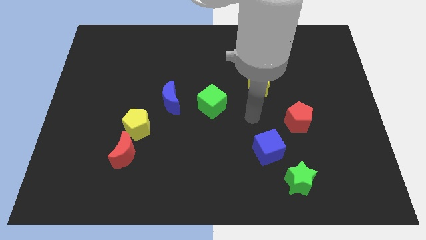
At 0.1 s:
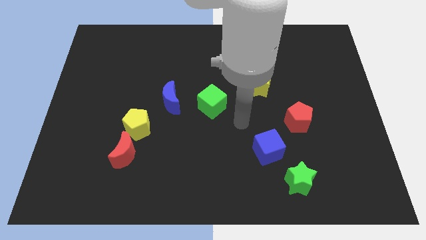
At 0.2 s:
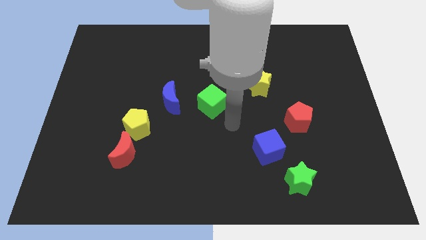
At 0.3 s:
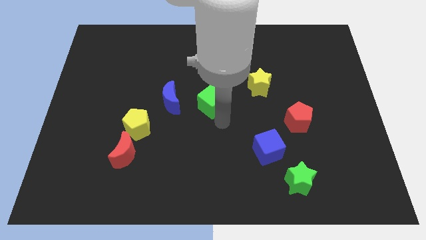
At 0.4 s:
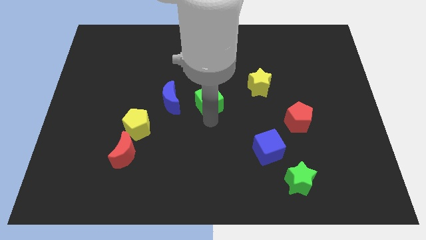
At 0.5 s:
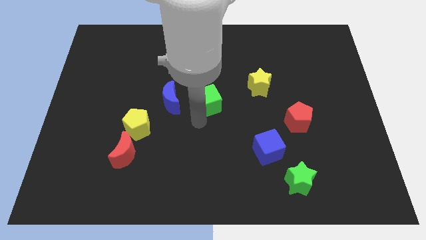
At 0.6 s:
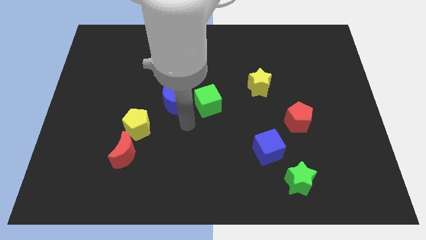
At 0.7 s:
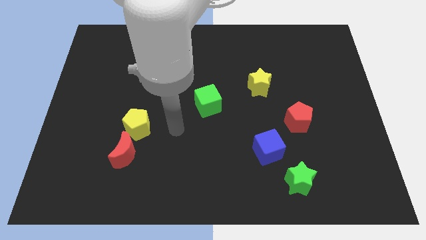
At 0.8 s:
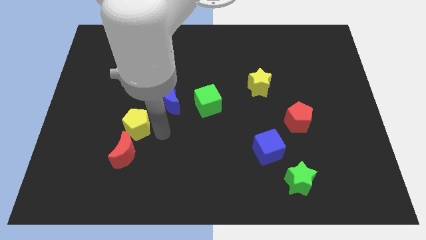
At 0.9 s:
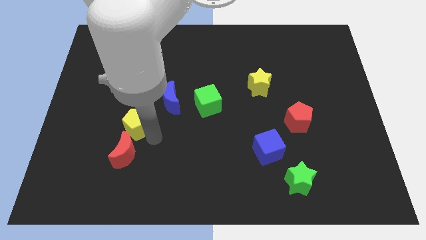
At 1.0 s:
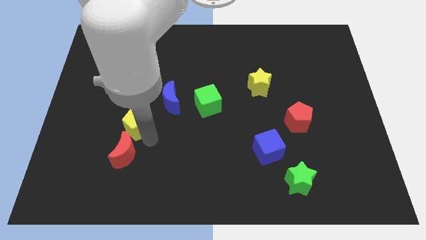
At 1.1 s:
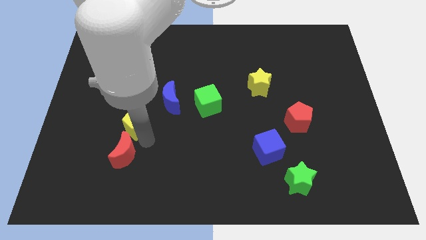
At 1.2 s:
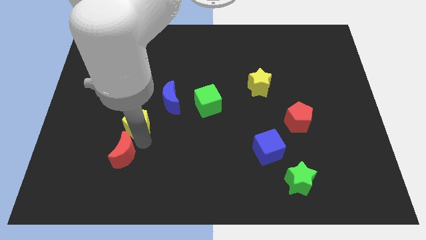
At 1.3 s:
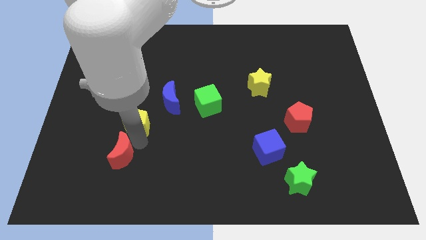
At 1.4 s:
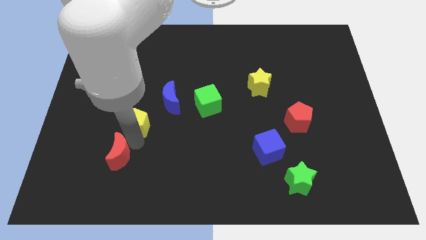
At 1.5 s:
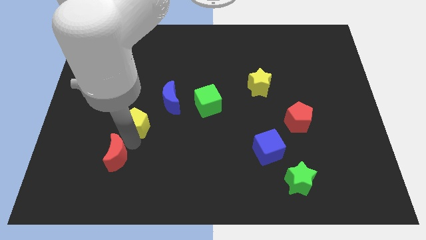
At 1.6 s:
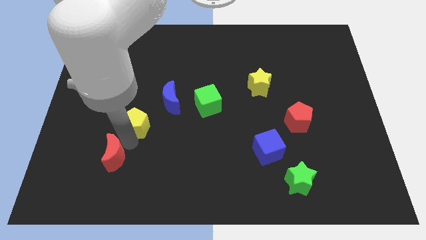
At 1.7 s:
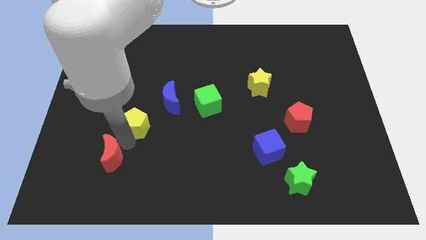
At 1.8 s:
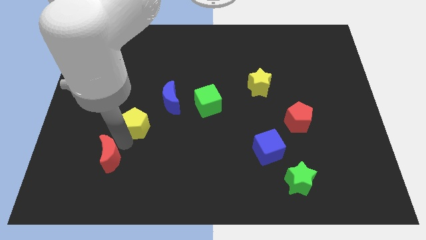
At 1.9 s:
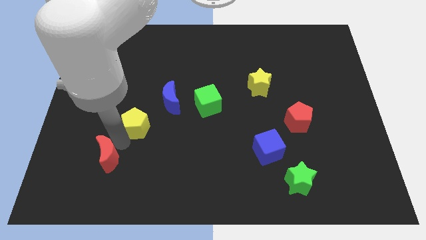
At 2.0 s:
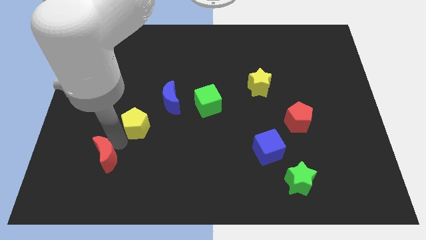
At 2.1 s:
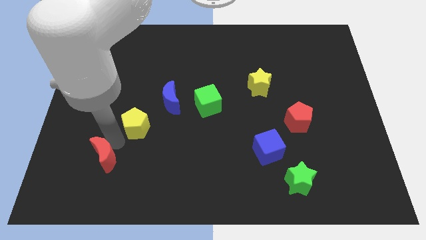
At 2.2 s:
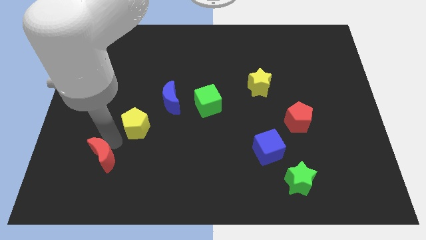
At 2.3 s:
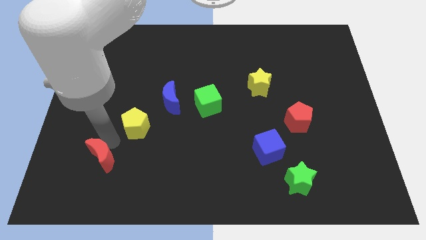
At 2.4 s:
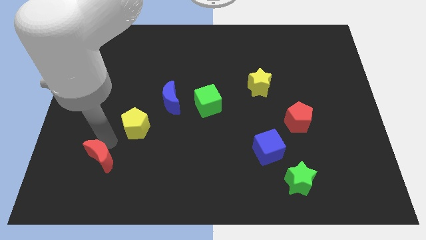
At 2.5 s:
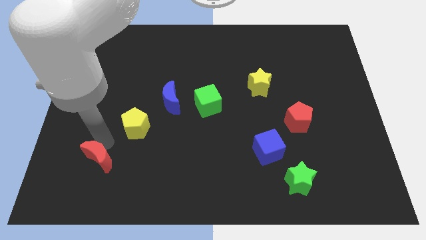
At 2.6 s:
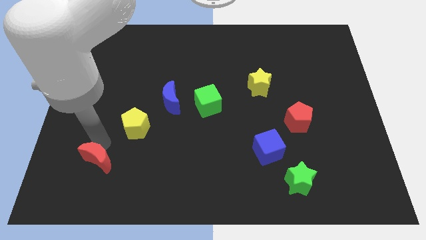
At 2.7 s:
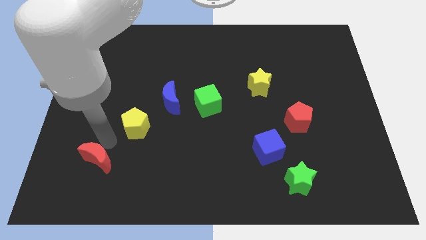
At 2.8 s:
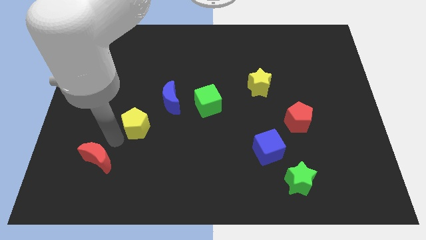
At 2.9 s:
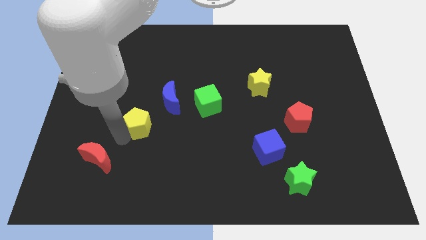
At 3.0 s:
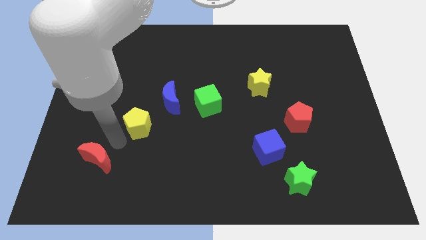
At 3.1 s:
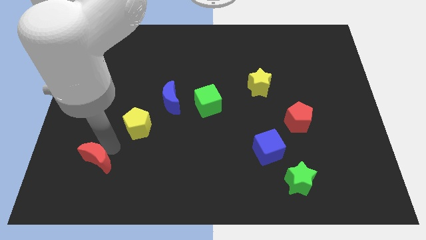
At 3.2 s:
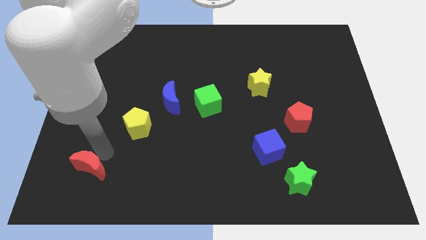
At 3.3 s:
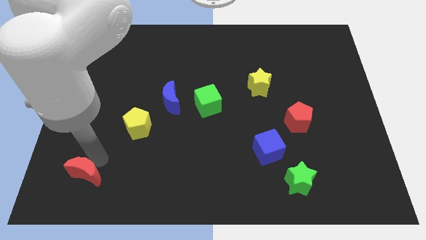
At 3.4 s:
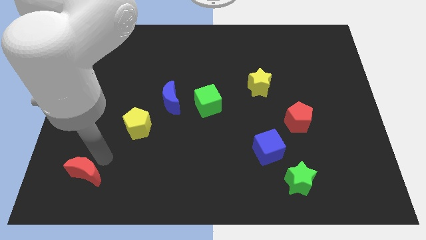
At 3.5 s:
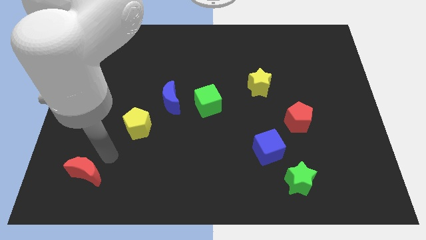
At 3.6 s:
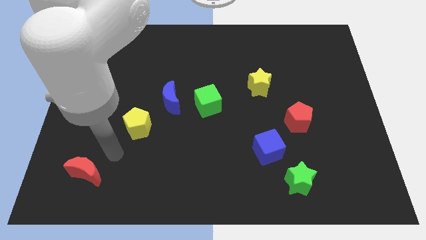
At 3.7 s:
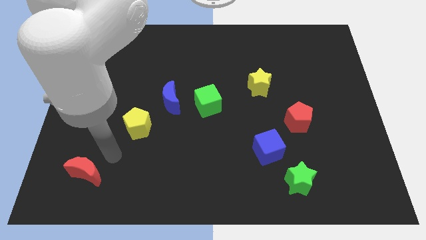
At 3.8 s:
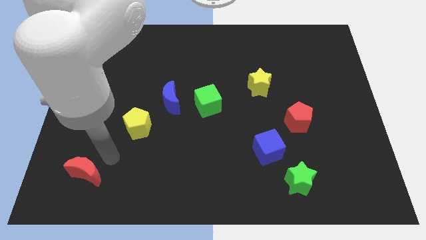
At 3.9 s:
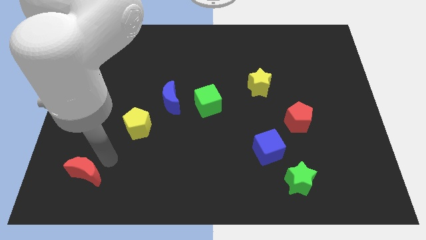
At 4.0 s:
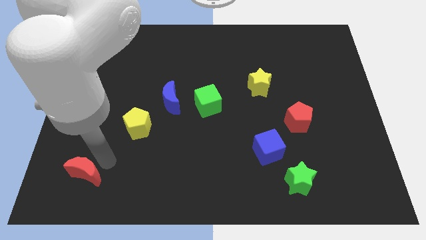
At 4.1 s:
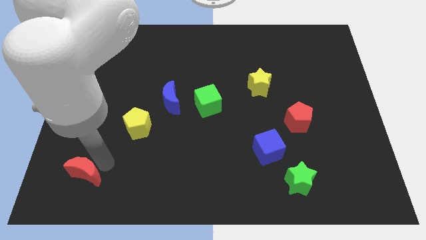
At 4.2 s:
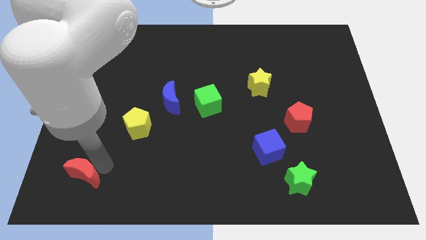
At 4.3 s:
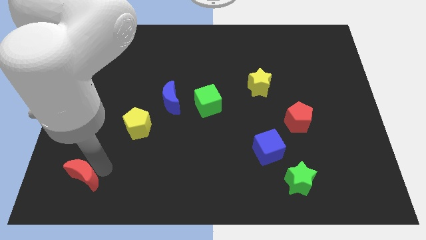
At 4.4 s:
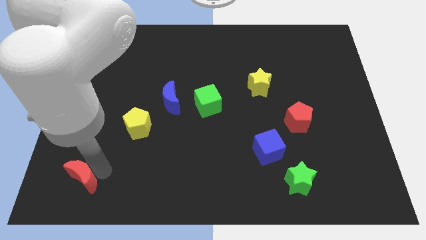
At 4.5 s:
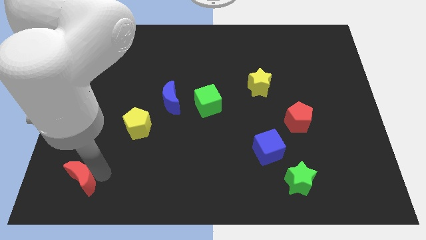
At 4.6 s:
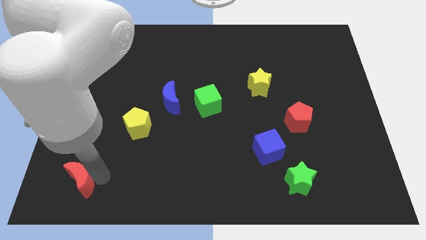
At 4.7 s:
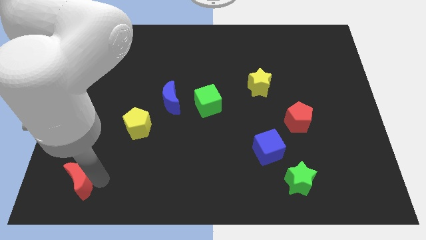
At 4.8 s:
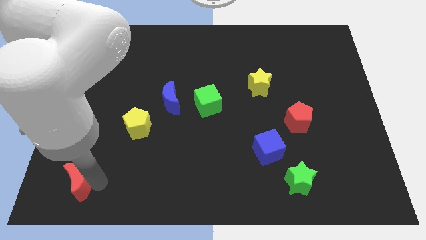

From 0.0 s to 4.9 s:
push the red moon to the bottom left

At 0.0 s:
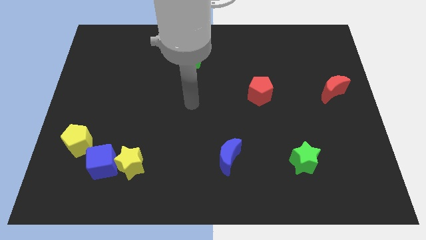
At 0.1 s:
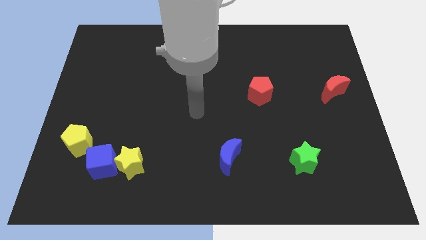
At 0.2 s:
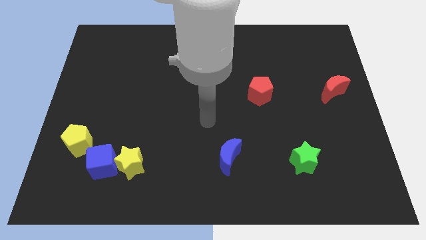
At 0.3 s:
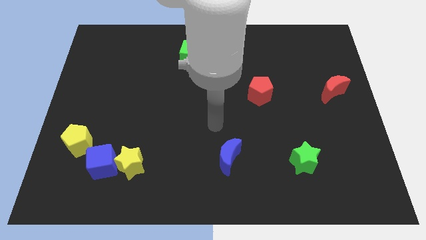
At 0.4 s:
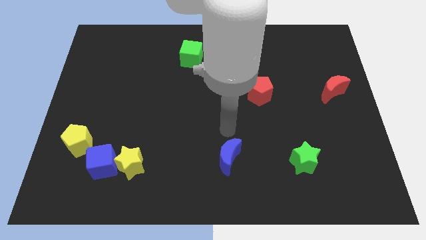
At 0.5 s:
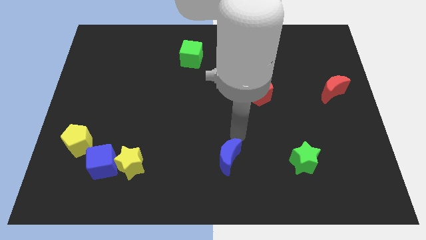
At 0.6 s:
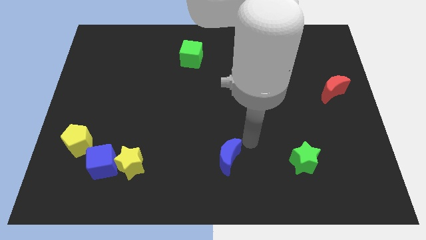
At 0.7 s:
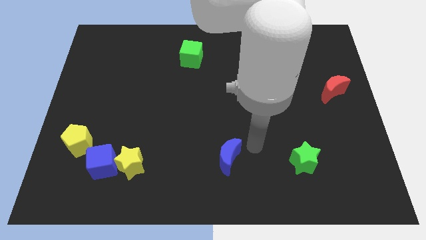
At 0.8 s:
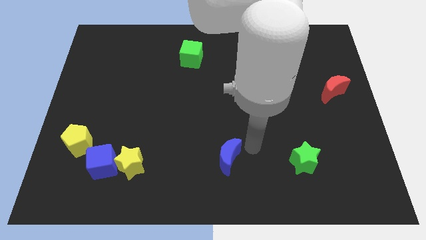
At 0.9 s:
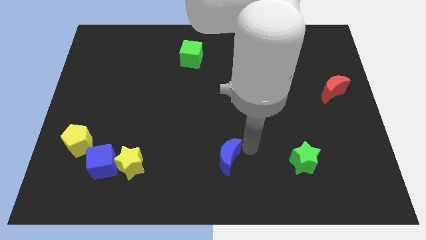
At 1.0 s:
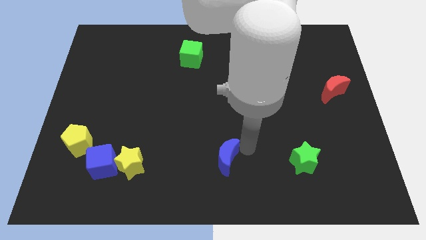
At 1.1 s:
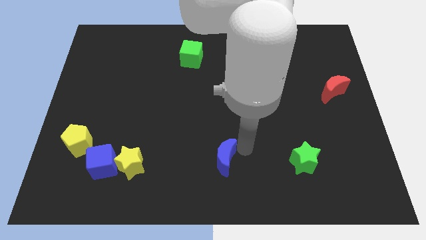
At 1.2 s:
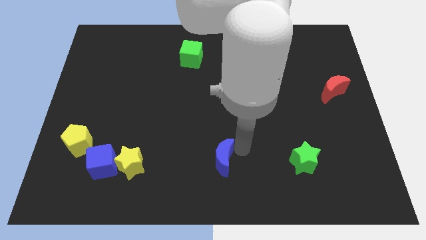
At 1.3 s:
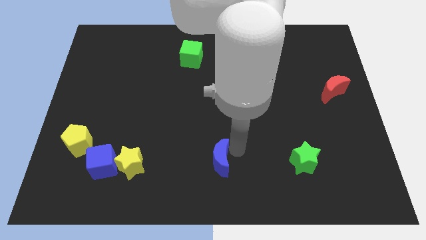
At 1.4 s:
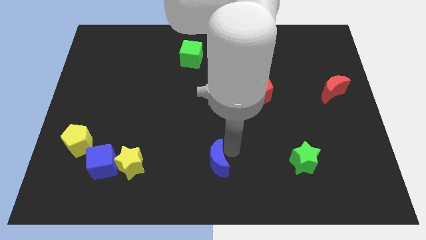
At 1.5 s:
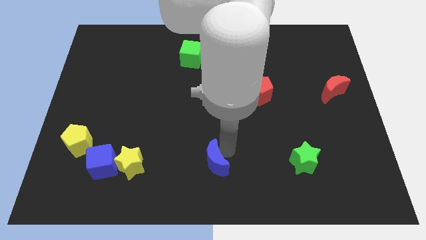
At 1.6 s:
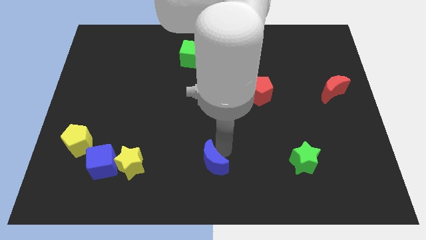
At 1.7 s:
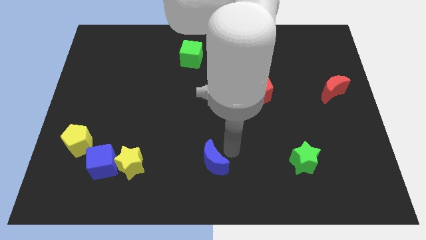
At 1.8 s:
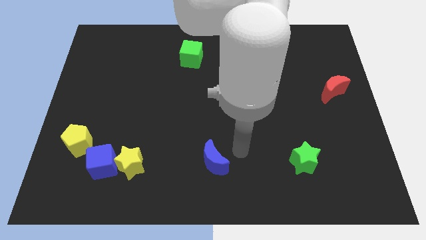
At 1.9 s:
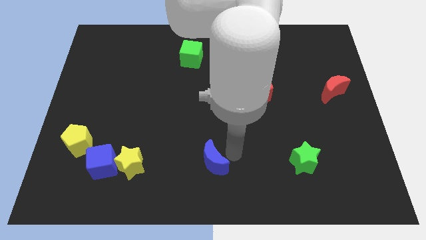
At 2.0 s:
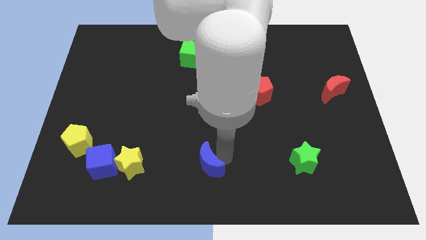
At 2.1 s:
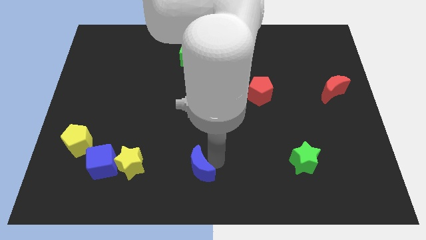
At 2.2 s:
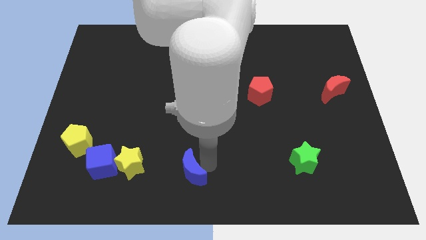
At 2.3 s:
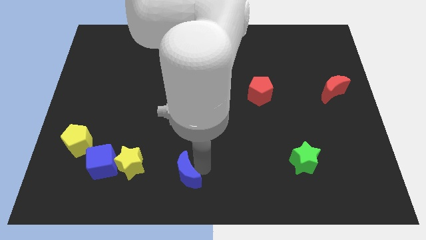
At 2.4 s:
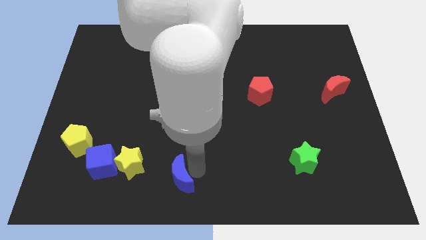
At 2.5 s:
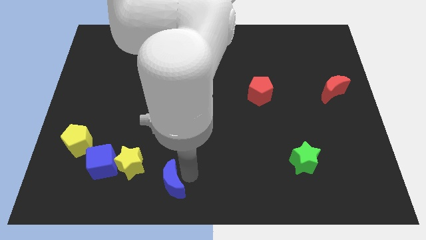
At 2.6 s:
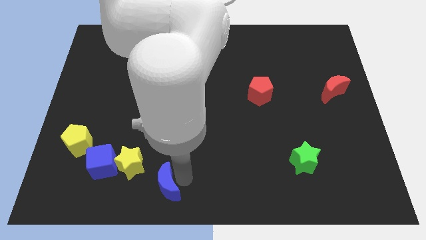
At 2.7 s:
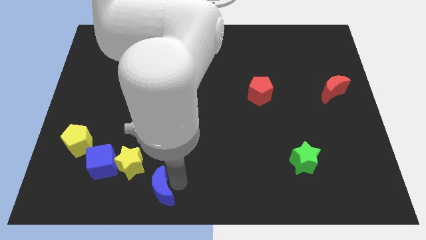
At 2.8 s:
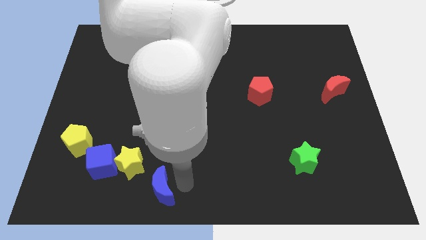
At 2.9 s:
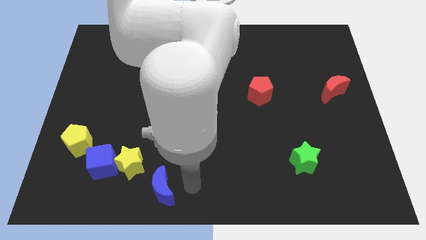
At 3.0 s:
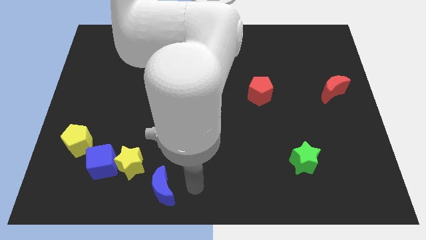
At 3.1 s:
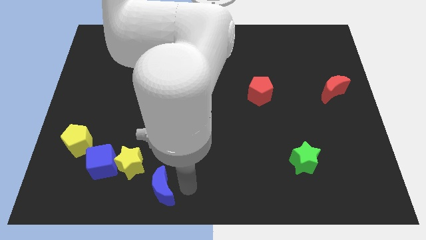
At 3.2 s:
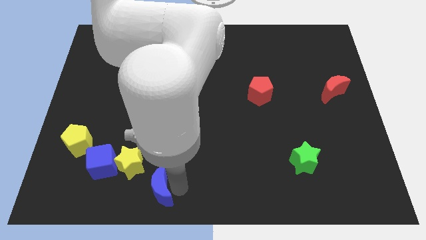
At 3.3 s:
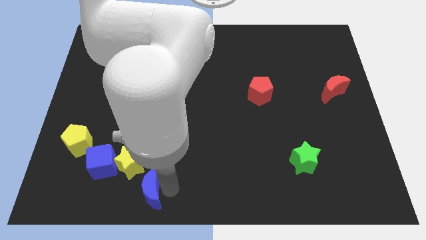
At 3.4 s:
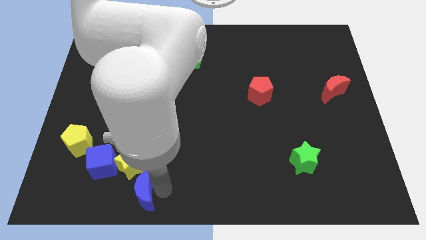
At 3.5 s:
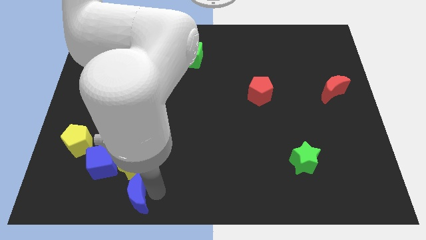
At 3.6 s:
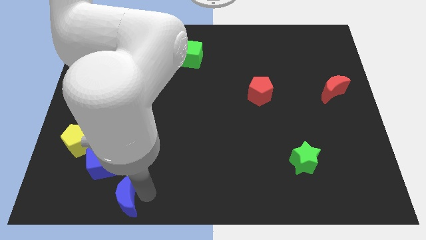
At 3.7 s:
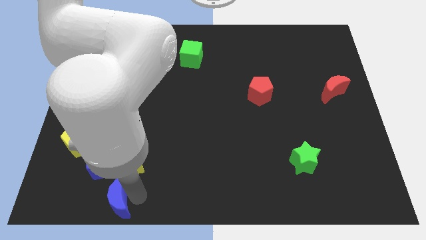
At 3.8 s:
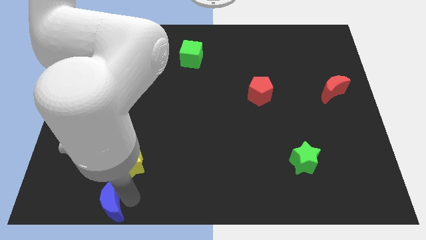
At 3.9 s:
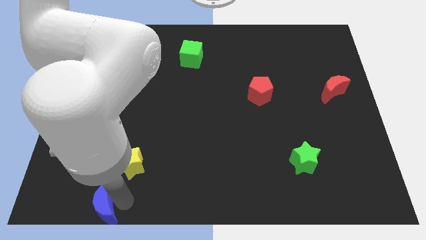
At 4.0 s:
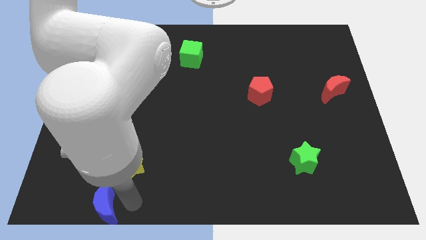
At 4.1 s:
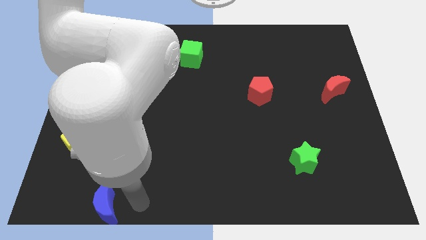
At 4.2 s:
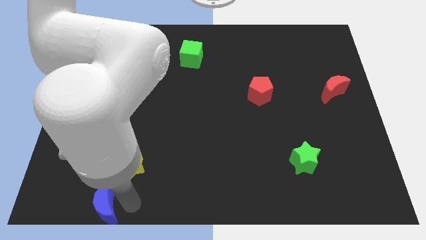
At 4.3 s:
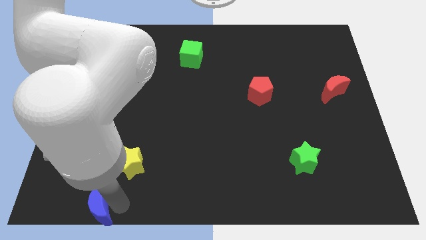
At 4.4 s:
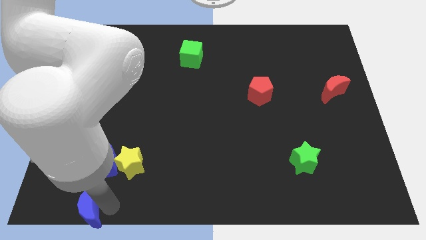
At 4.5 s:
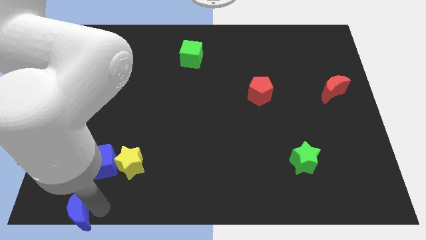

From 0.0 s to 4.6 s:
push the blue moon to the bottom left
